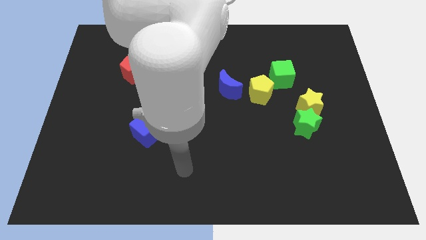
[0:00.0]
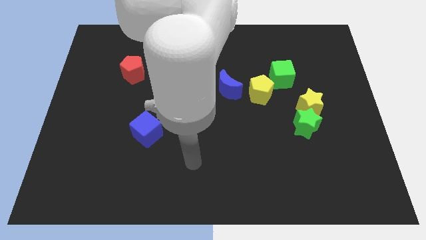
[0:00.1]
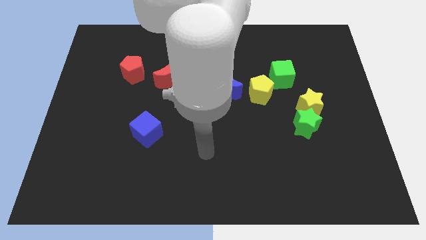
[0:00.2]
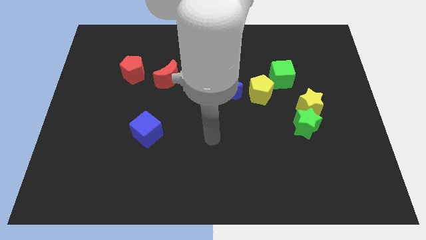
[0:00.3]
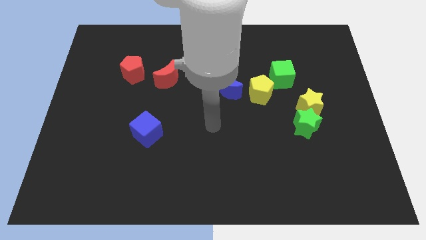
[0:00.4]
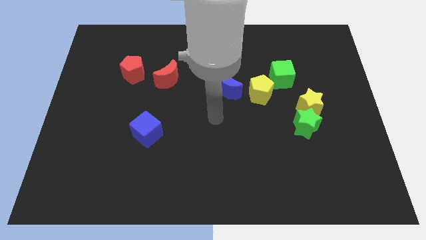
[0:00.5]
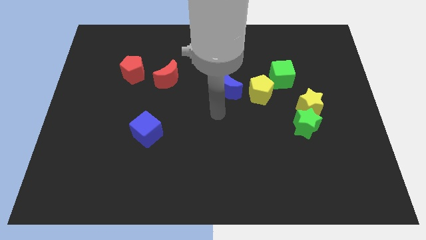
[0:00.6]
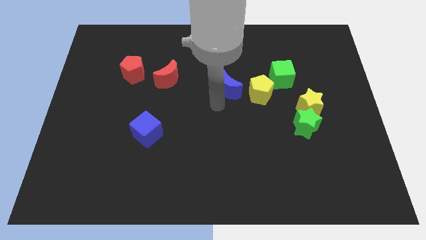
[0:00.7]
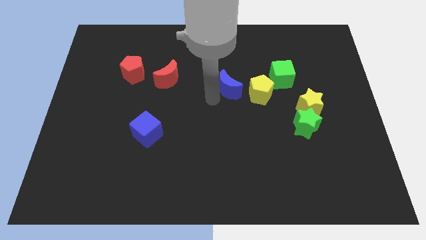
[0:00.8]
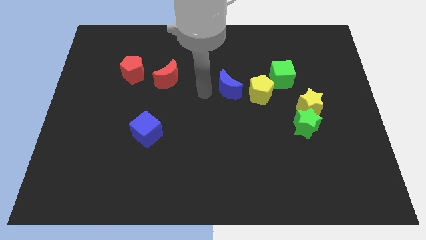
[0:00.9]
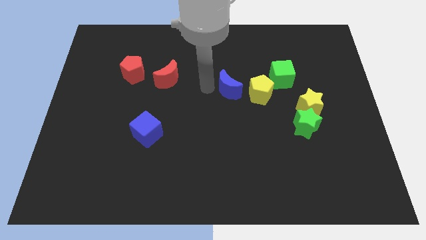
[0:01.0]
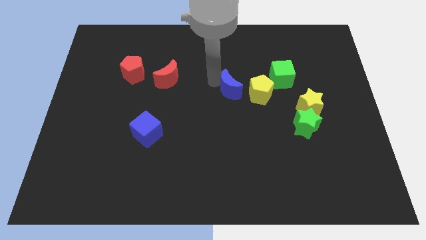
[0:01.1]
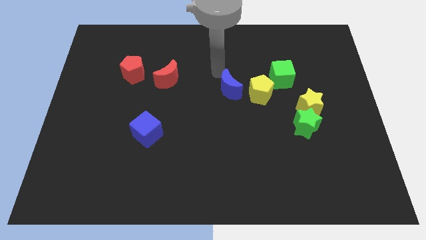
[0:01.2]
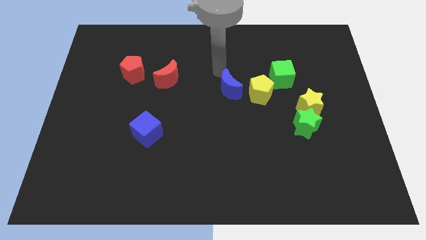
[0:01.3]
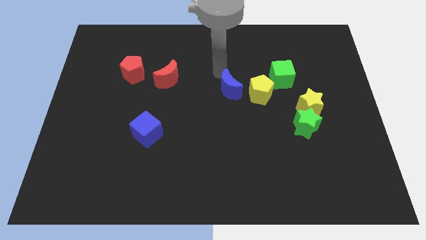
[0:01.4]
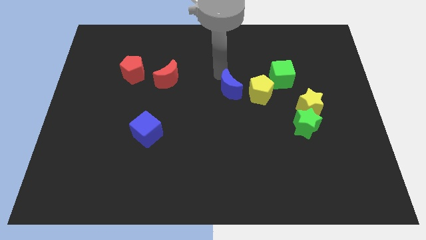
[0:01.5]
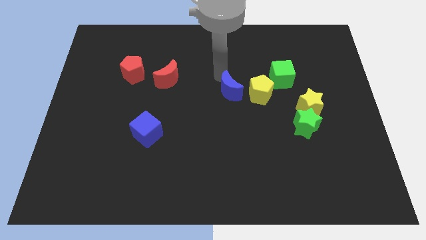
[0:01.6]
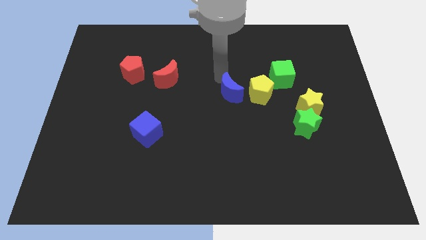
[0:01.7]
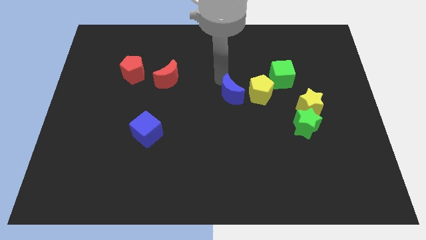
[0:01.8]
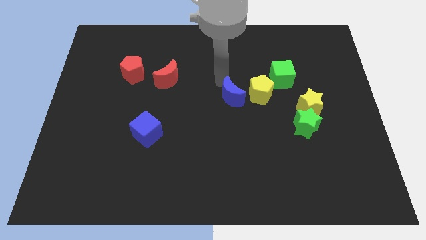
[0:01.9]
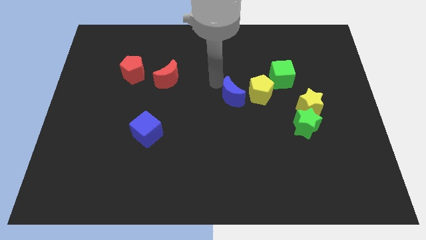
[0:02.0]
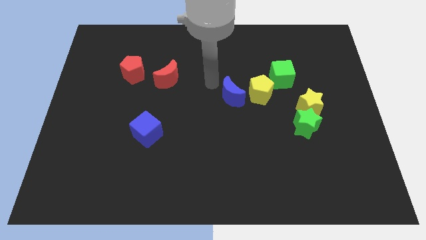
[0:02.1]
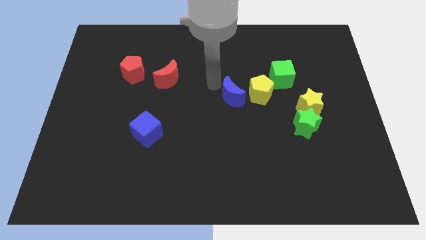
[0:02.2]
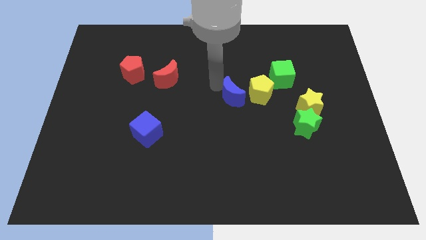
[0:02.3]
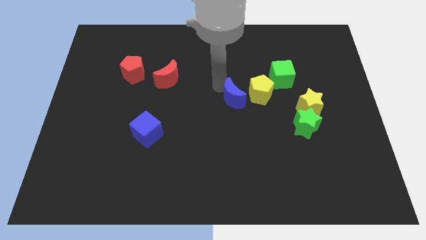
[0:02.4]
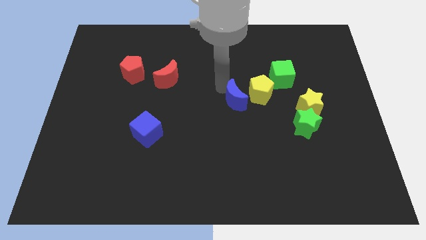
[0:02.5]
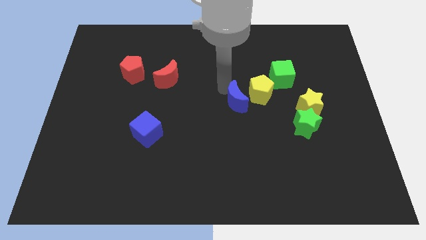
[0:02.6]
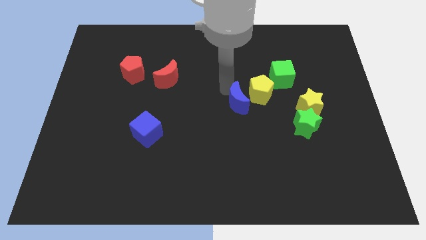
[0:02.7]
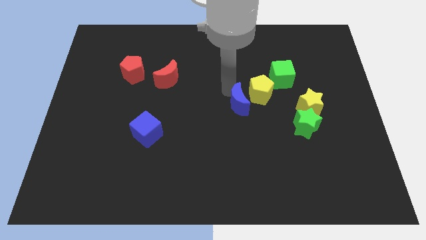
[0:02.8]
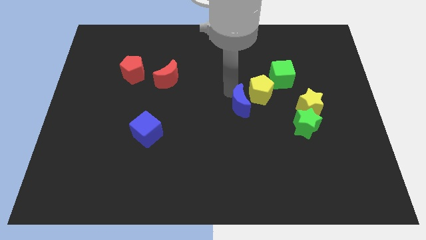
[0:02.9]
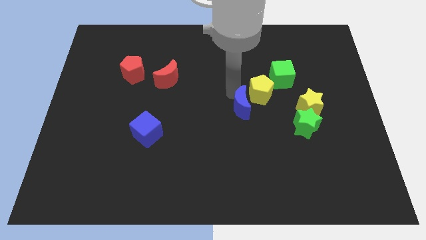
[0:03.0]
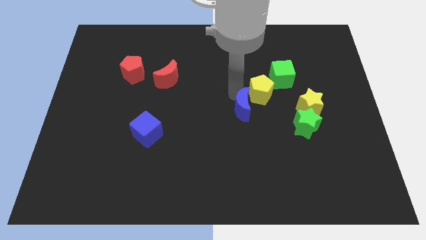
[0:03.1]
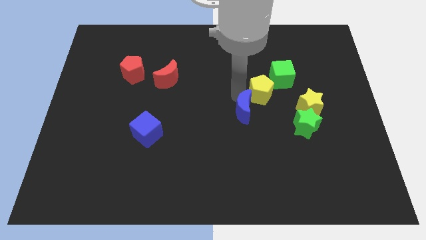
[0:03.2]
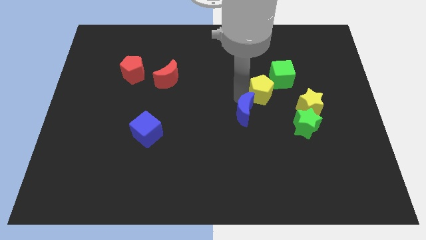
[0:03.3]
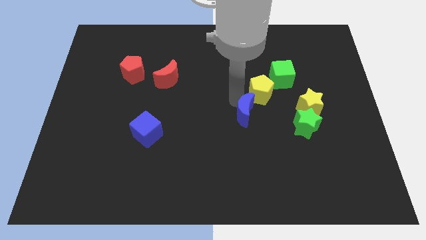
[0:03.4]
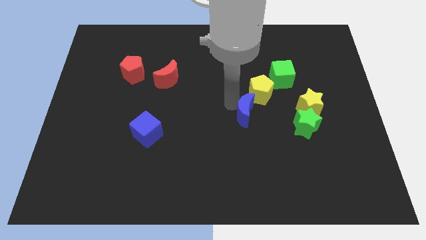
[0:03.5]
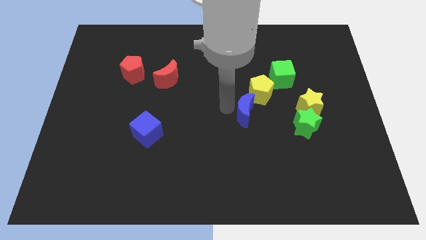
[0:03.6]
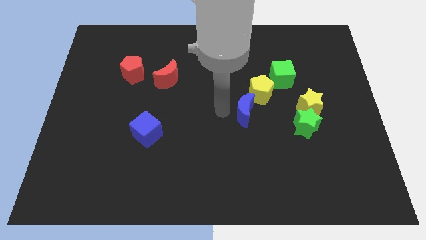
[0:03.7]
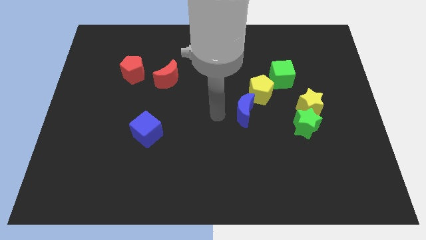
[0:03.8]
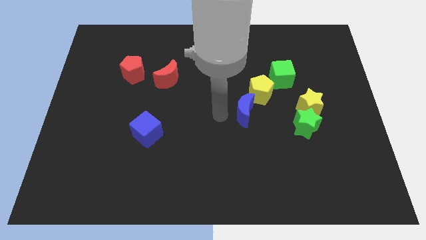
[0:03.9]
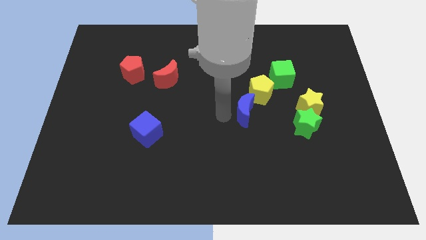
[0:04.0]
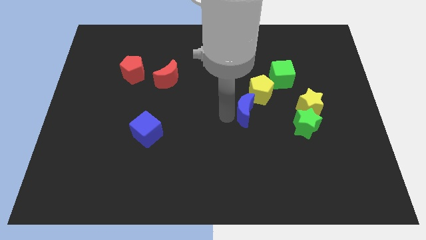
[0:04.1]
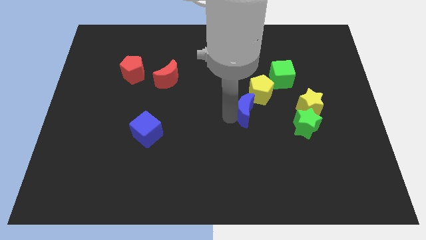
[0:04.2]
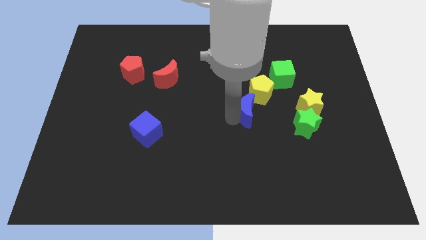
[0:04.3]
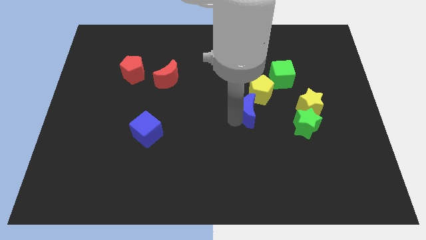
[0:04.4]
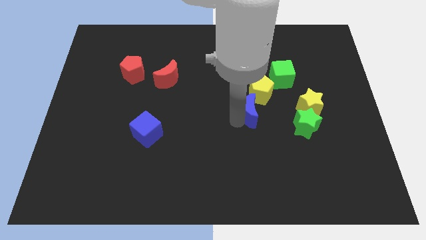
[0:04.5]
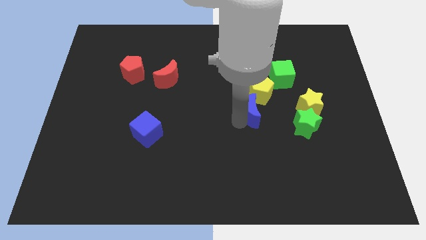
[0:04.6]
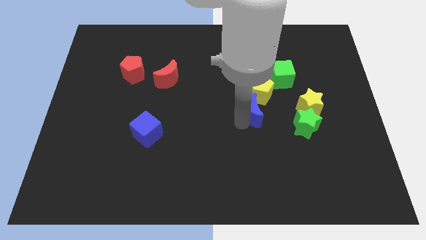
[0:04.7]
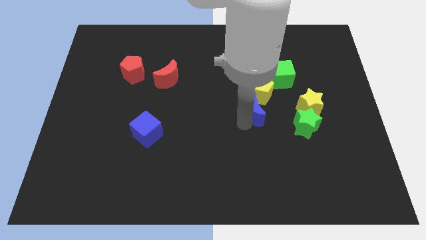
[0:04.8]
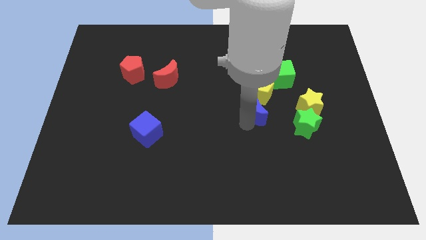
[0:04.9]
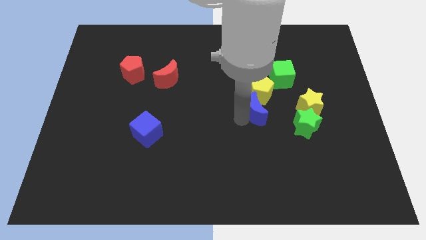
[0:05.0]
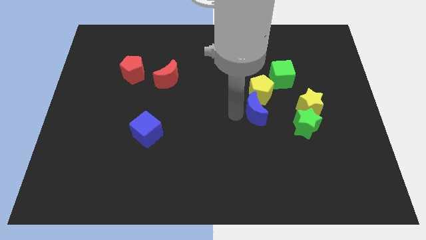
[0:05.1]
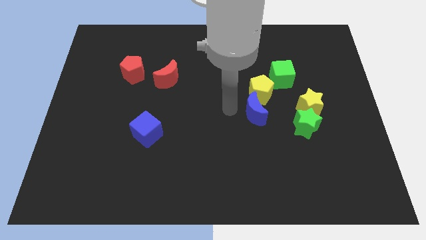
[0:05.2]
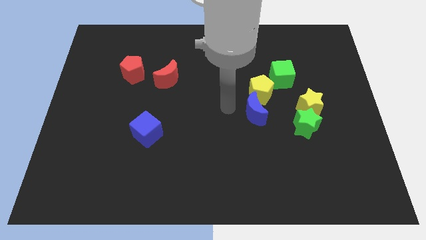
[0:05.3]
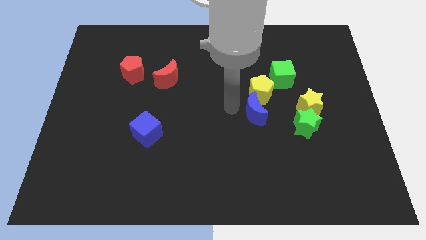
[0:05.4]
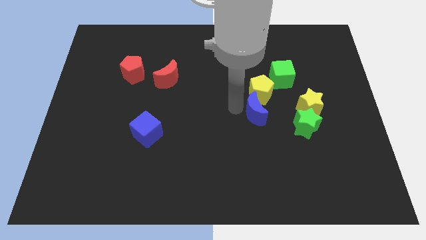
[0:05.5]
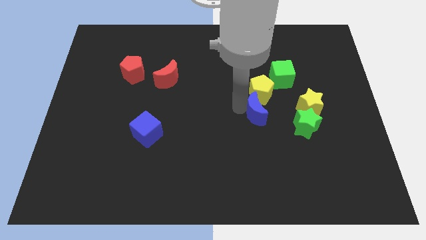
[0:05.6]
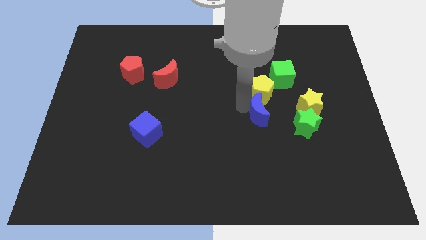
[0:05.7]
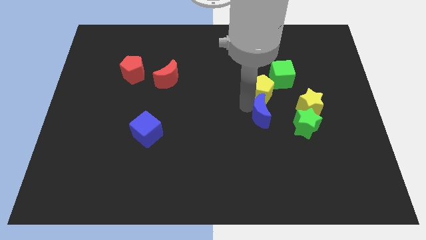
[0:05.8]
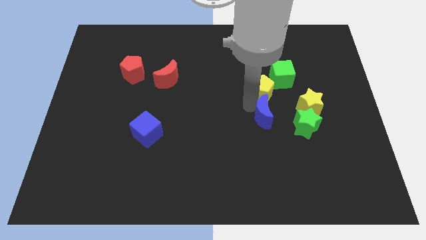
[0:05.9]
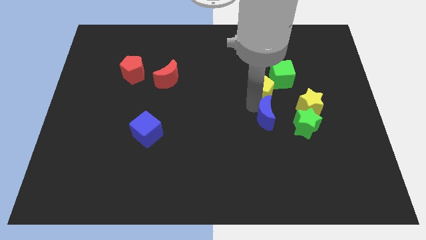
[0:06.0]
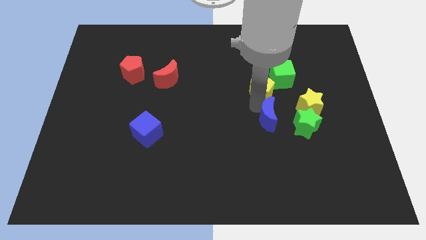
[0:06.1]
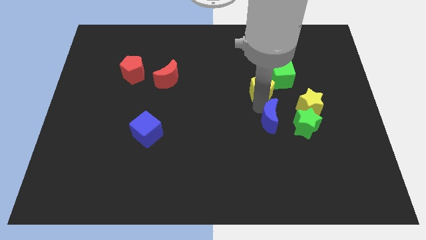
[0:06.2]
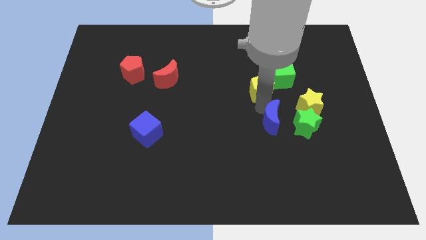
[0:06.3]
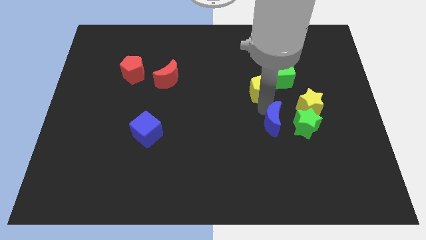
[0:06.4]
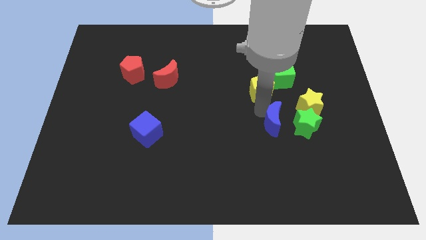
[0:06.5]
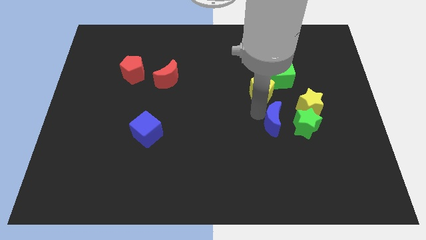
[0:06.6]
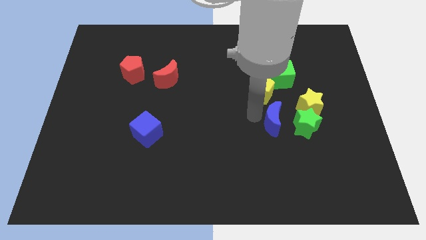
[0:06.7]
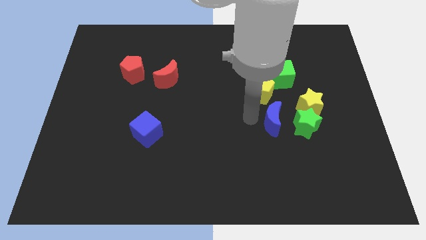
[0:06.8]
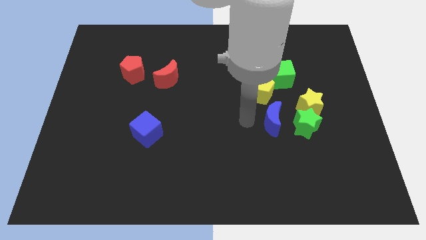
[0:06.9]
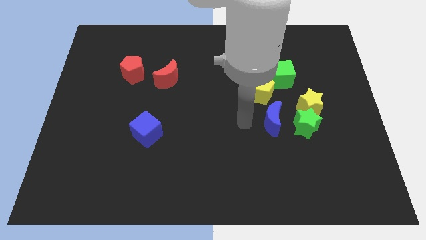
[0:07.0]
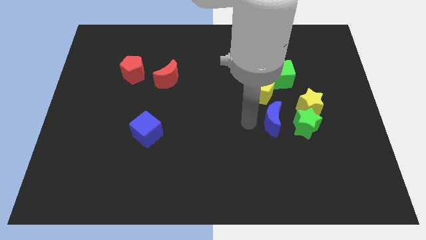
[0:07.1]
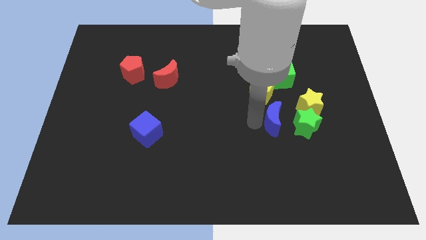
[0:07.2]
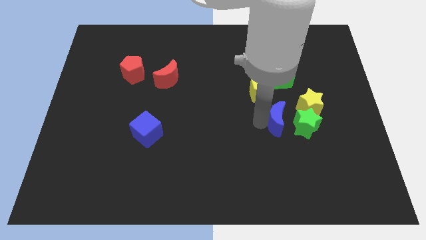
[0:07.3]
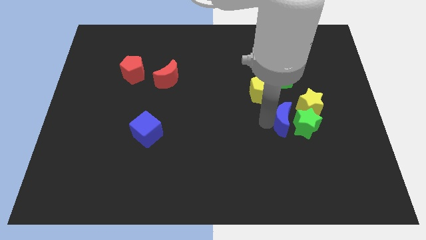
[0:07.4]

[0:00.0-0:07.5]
slide the blue moon next to the green star
